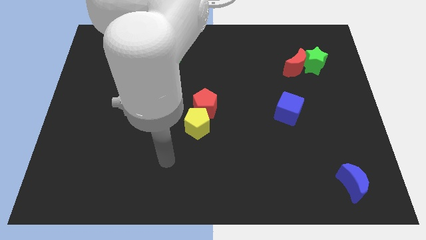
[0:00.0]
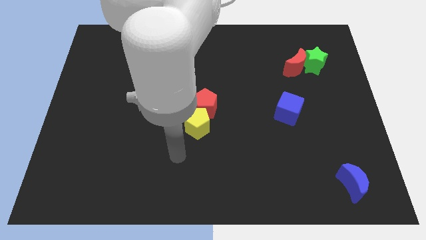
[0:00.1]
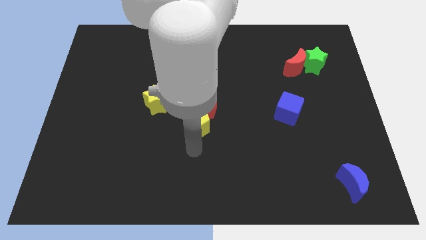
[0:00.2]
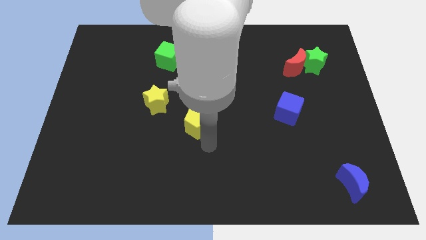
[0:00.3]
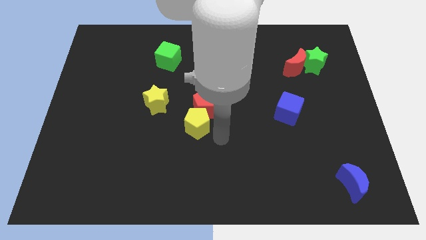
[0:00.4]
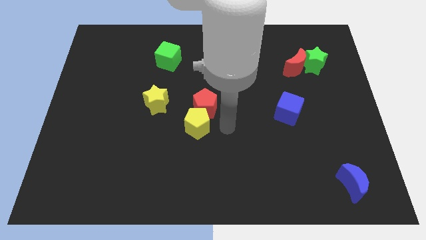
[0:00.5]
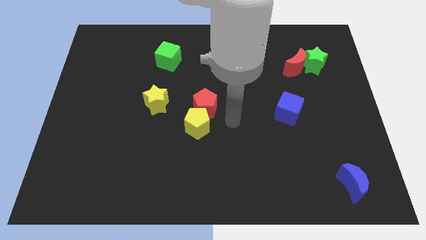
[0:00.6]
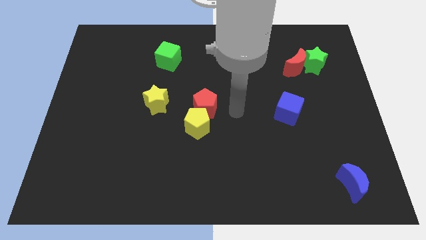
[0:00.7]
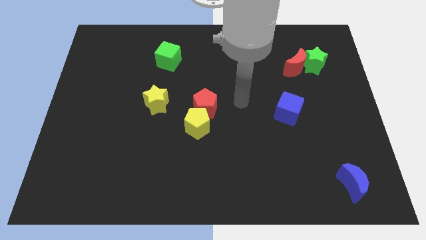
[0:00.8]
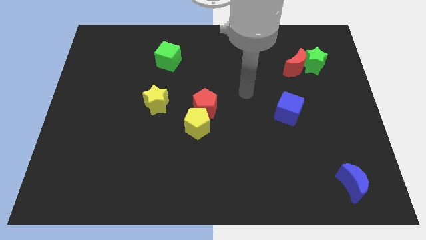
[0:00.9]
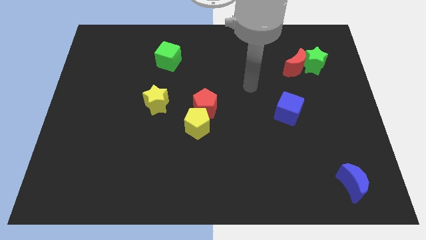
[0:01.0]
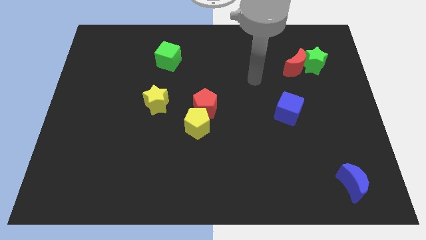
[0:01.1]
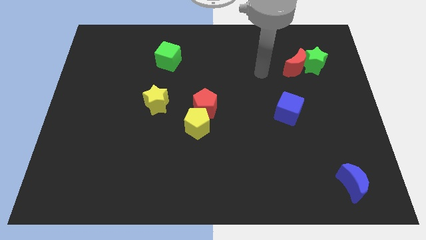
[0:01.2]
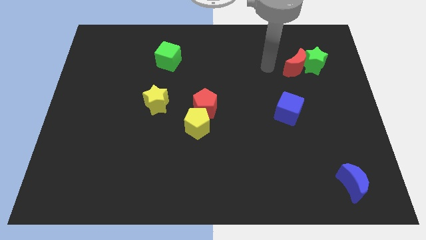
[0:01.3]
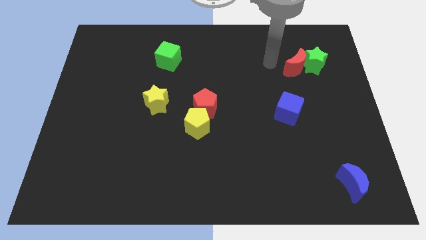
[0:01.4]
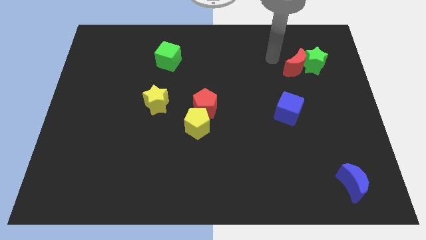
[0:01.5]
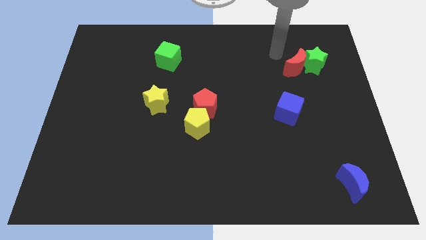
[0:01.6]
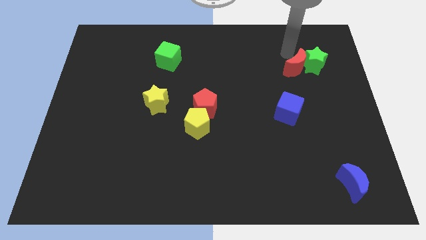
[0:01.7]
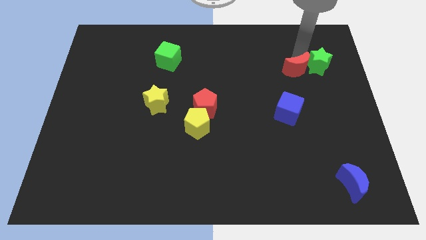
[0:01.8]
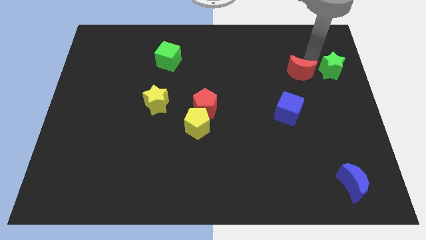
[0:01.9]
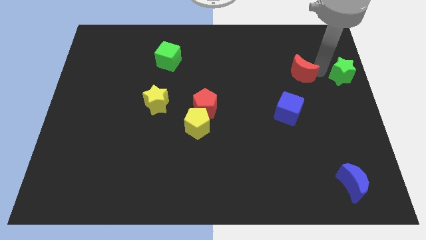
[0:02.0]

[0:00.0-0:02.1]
separate the red moon from the green star

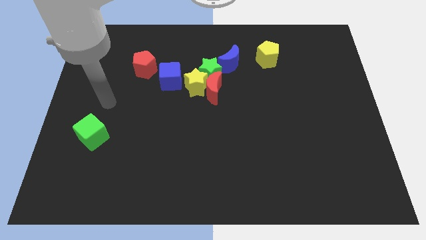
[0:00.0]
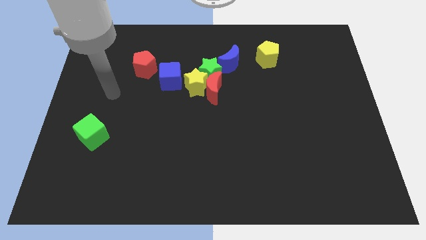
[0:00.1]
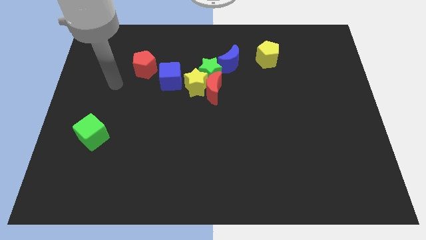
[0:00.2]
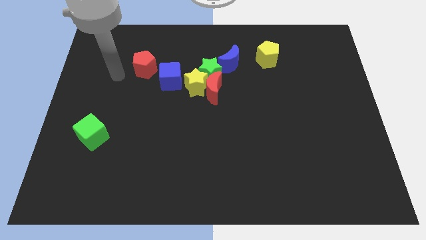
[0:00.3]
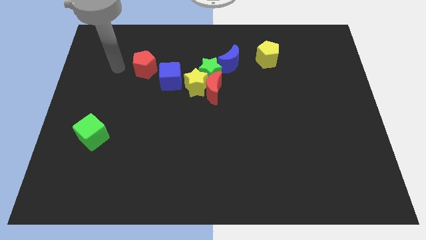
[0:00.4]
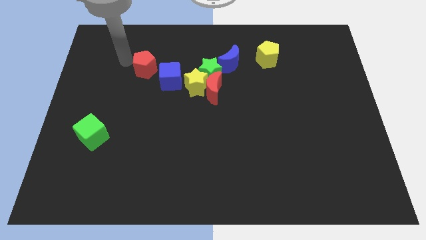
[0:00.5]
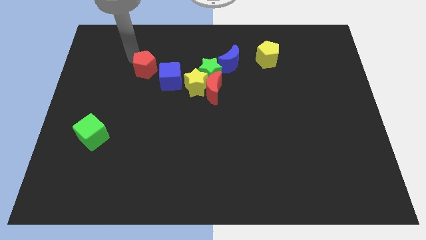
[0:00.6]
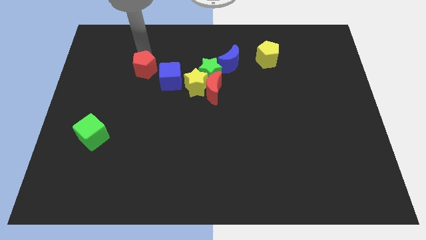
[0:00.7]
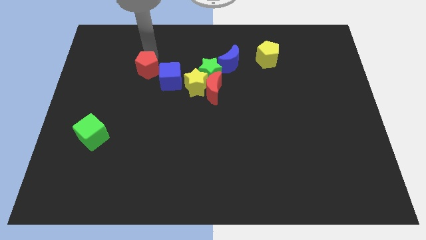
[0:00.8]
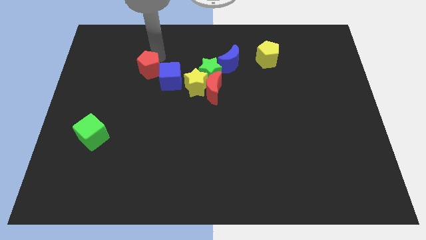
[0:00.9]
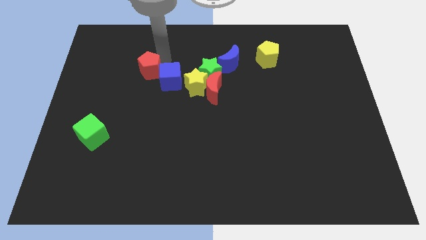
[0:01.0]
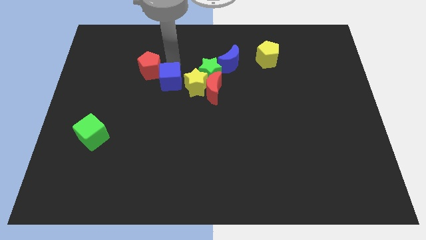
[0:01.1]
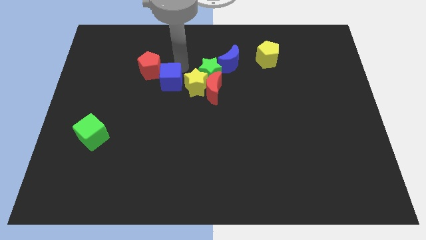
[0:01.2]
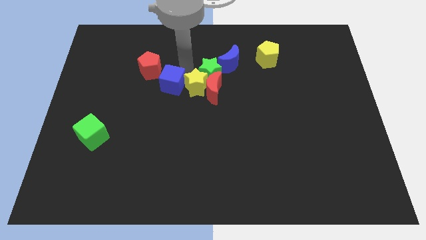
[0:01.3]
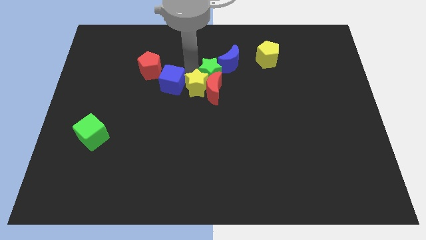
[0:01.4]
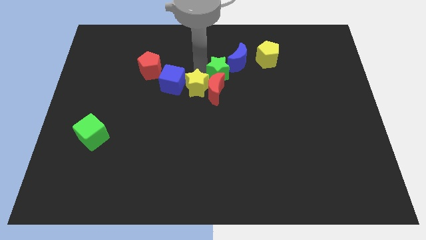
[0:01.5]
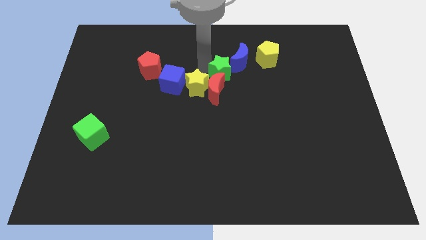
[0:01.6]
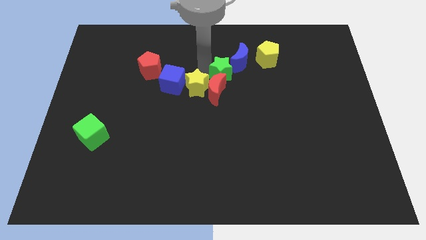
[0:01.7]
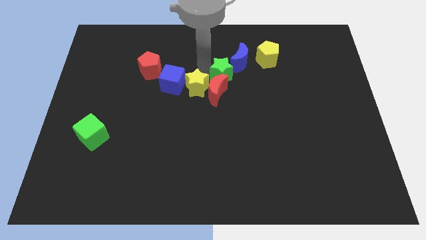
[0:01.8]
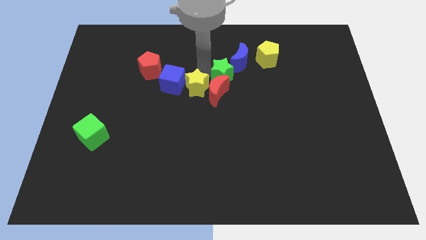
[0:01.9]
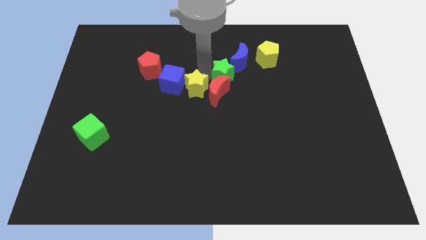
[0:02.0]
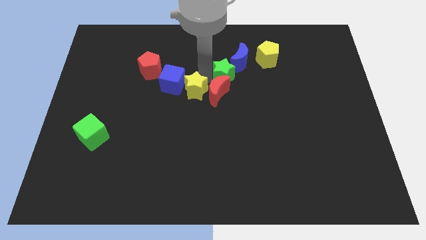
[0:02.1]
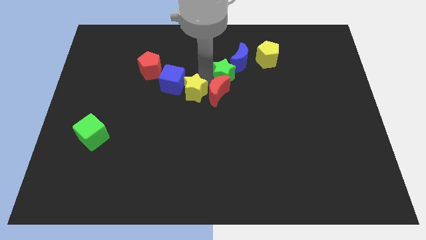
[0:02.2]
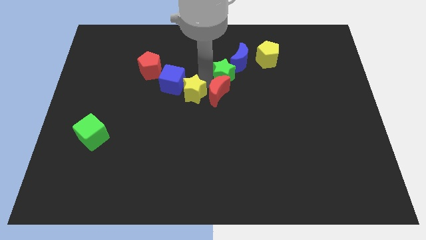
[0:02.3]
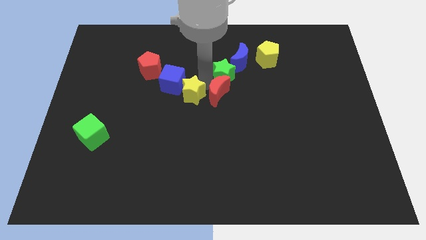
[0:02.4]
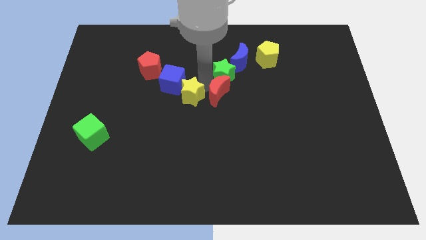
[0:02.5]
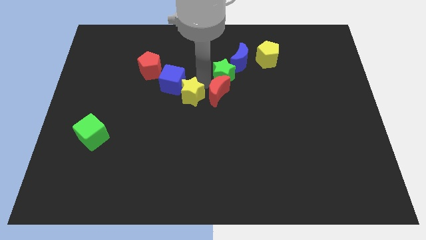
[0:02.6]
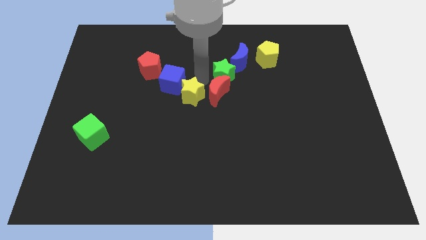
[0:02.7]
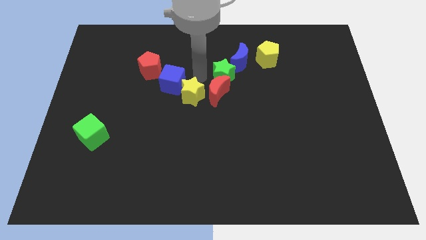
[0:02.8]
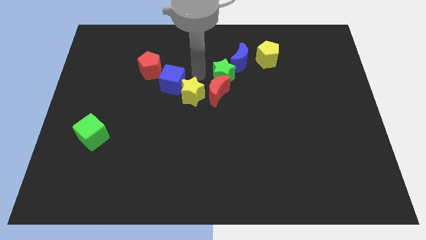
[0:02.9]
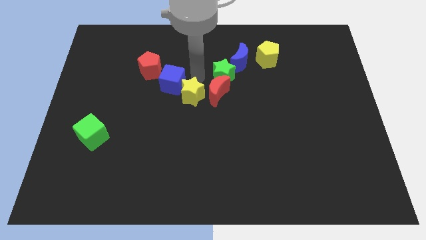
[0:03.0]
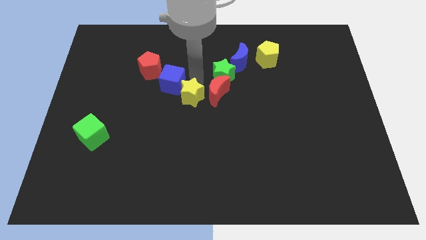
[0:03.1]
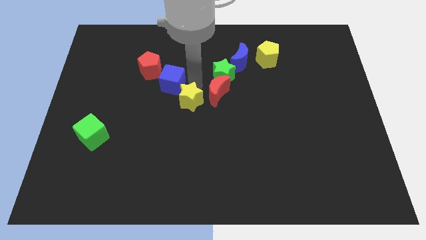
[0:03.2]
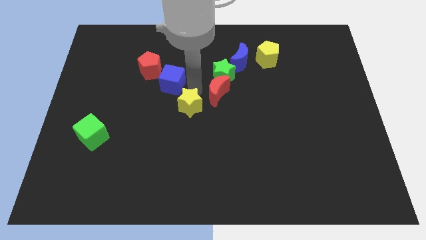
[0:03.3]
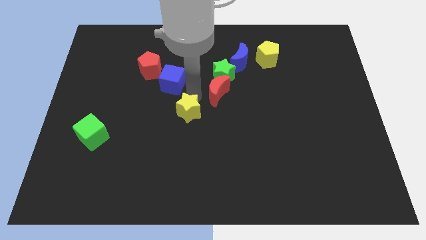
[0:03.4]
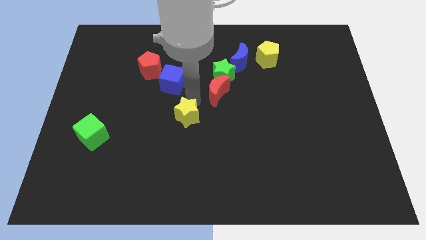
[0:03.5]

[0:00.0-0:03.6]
move the yellow star away from the group of blocks

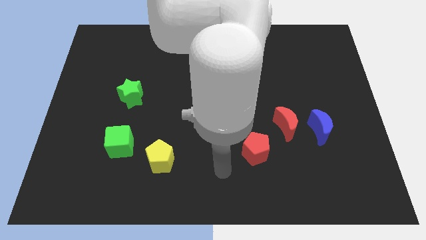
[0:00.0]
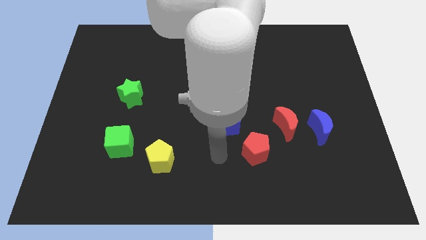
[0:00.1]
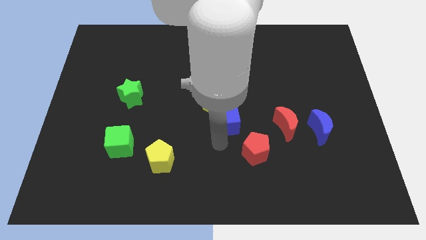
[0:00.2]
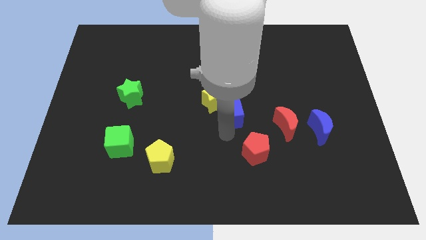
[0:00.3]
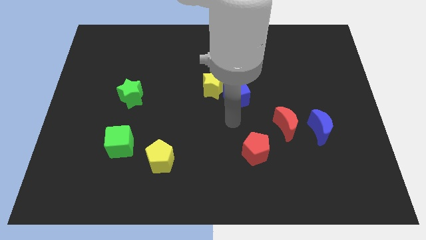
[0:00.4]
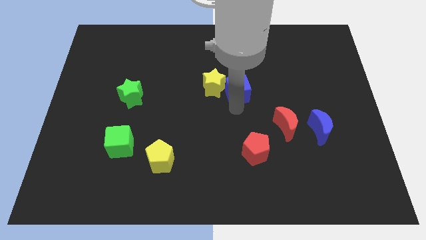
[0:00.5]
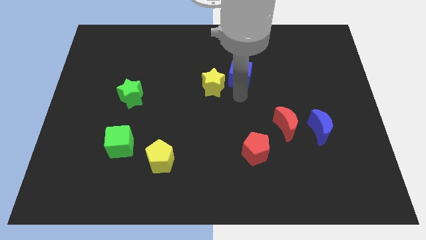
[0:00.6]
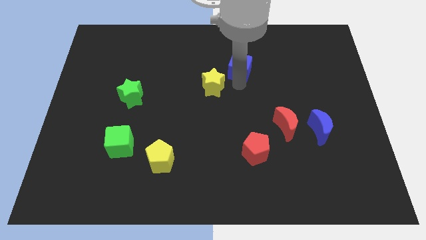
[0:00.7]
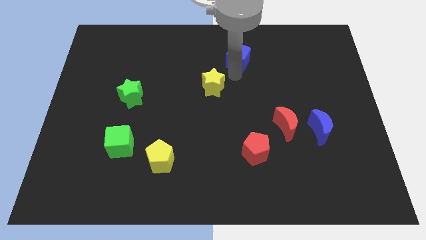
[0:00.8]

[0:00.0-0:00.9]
pull the yellow star apart from the blue cube

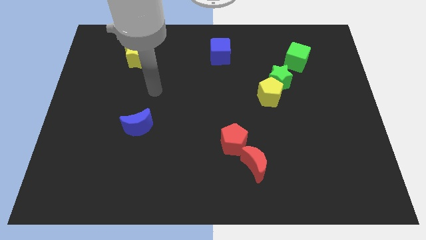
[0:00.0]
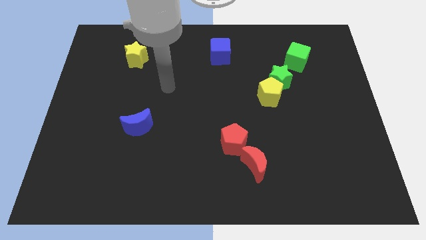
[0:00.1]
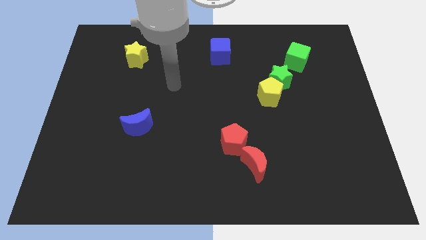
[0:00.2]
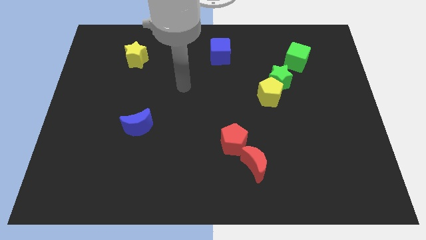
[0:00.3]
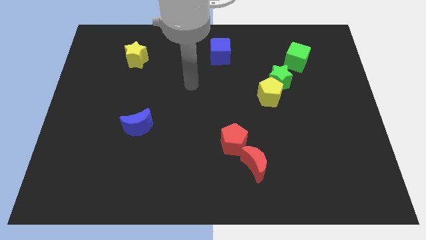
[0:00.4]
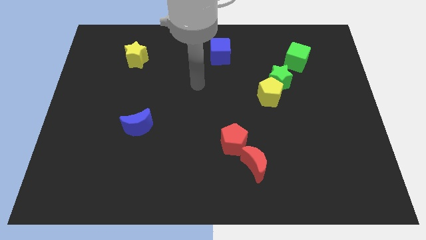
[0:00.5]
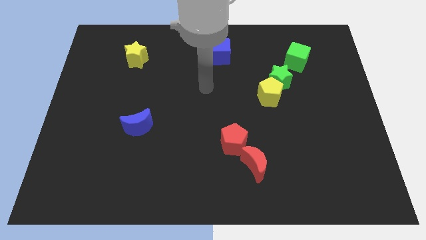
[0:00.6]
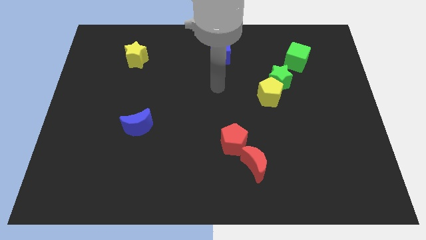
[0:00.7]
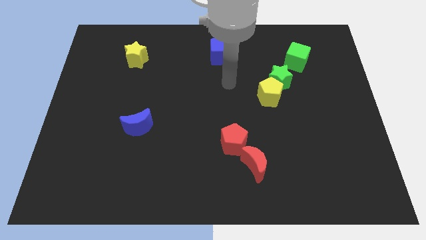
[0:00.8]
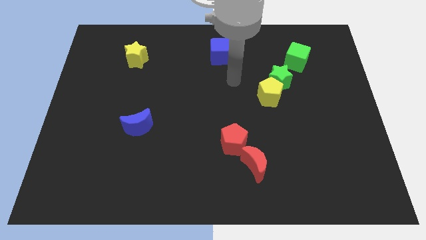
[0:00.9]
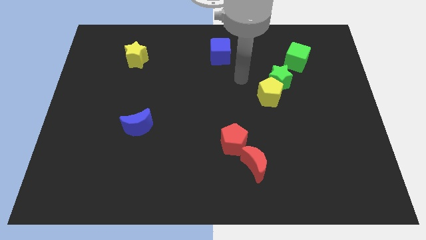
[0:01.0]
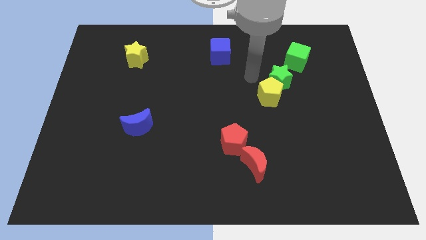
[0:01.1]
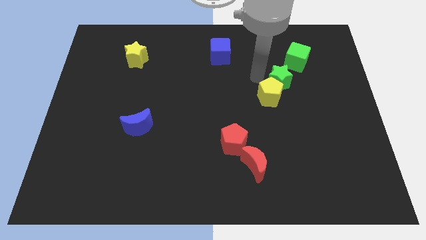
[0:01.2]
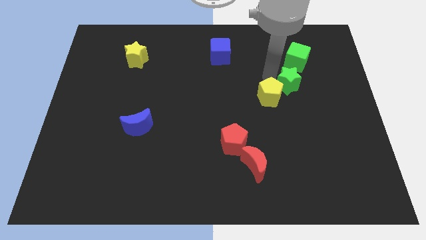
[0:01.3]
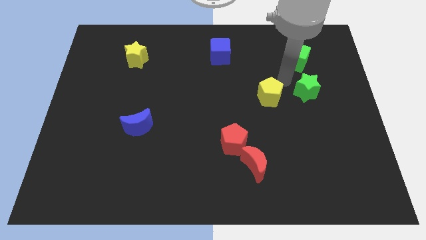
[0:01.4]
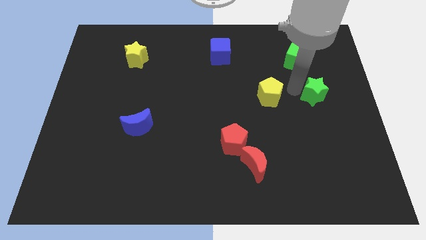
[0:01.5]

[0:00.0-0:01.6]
move the yellow pentagon away from the green star

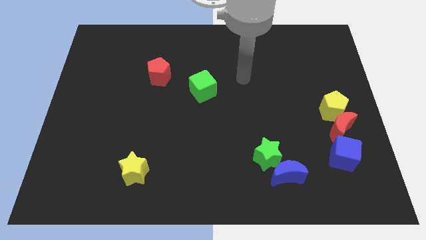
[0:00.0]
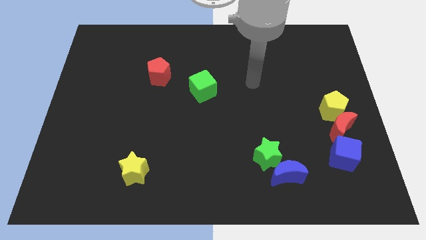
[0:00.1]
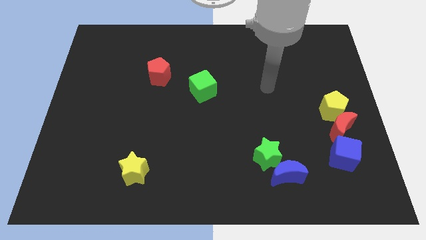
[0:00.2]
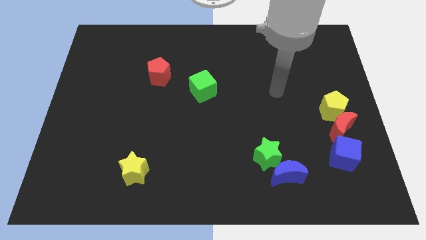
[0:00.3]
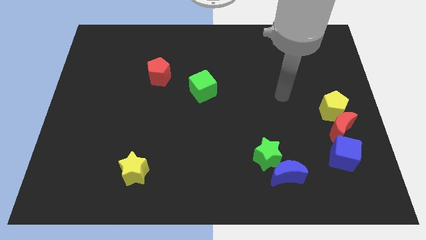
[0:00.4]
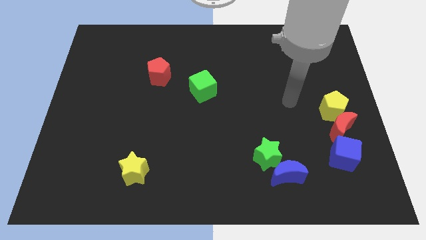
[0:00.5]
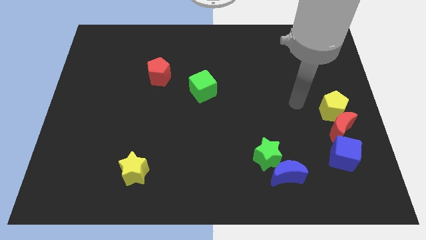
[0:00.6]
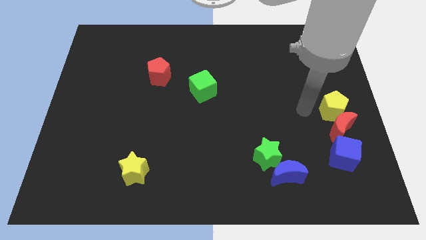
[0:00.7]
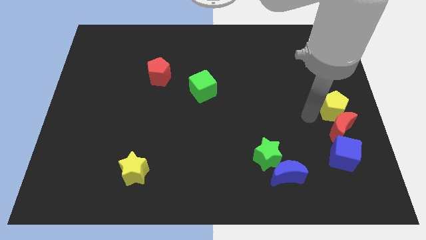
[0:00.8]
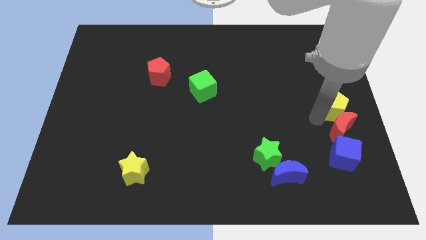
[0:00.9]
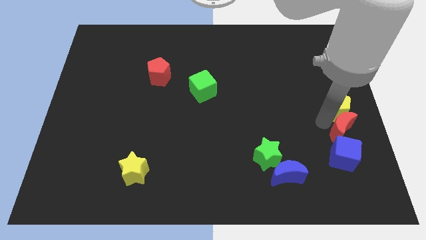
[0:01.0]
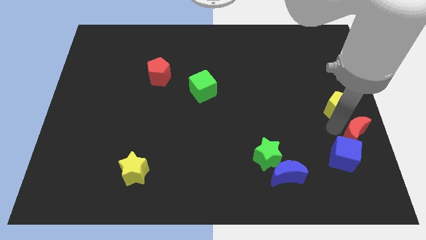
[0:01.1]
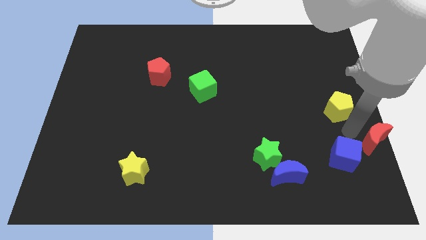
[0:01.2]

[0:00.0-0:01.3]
separate the yellow pentagon from the red moon
